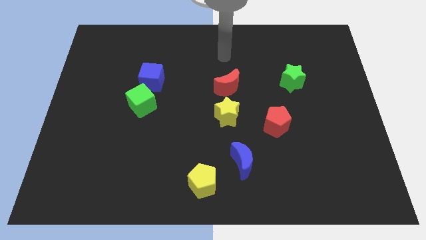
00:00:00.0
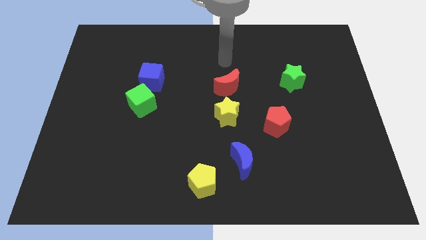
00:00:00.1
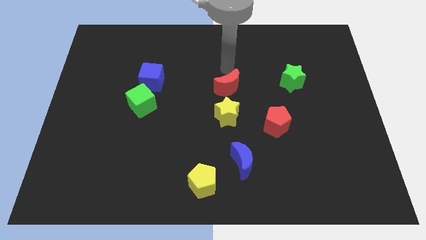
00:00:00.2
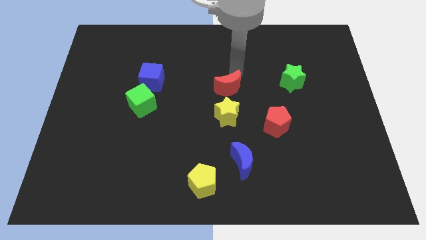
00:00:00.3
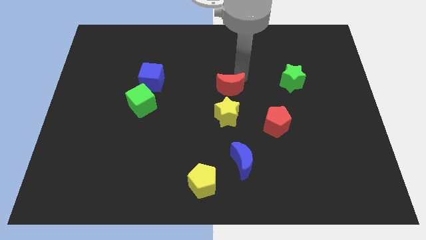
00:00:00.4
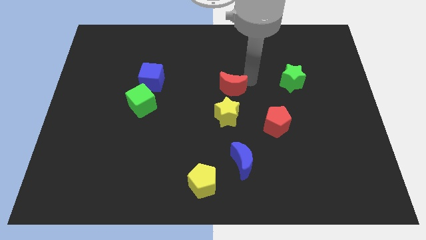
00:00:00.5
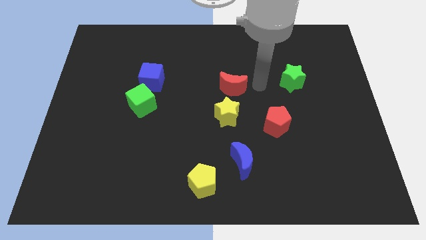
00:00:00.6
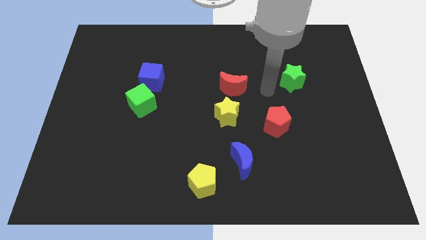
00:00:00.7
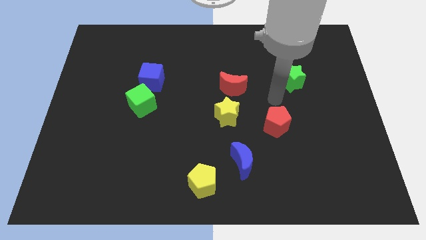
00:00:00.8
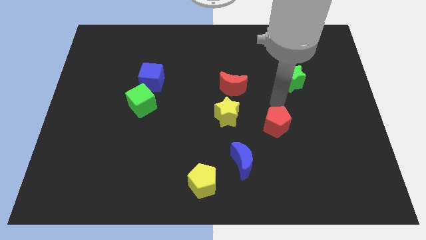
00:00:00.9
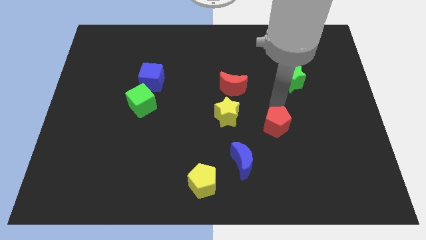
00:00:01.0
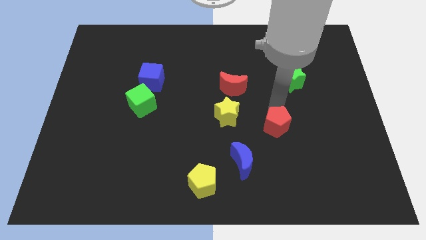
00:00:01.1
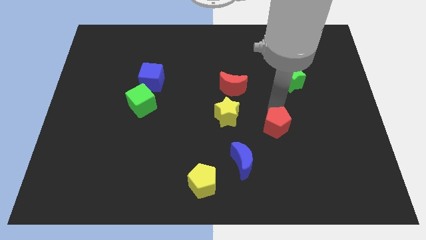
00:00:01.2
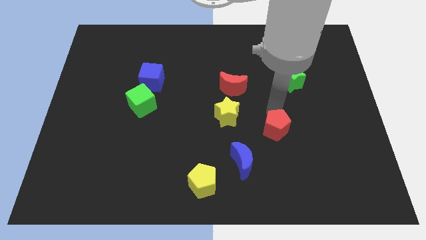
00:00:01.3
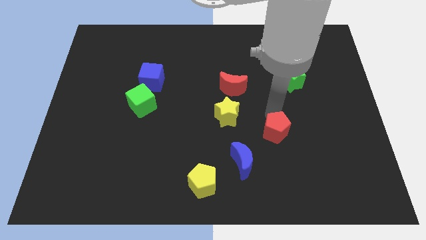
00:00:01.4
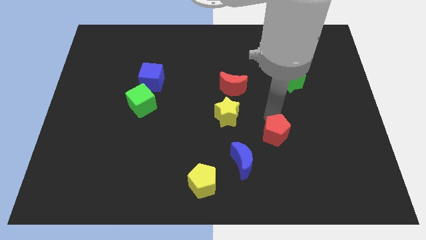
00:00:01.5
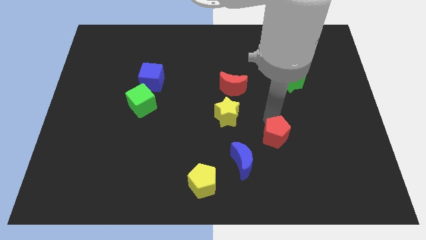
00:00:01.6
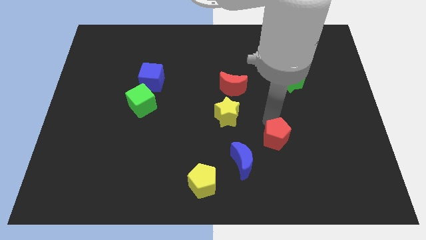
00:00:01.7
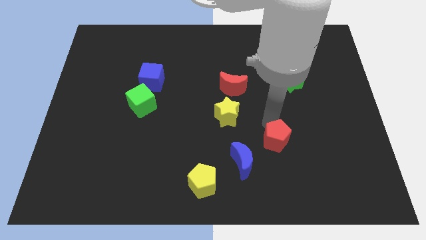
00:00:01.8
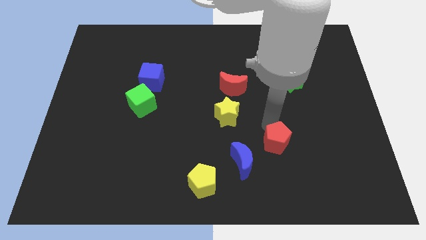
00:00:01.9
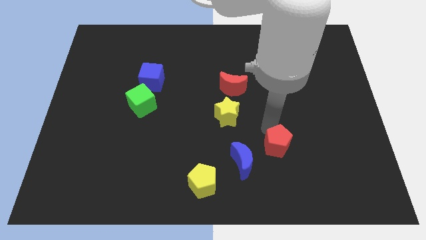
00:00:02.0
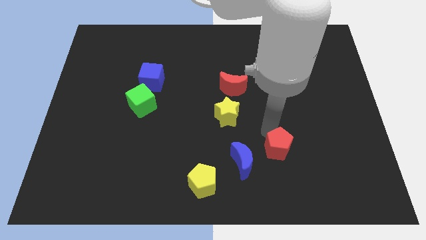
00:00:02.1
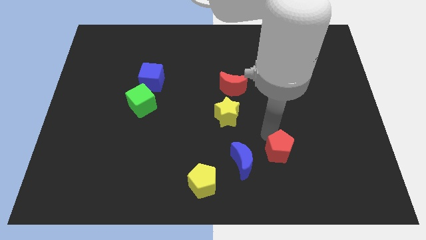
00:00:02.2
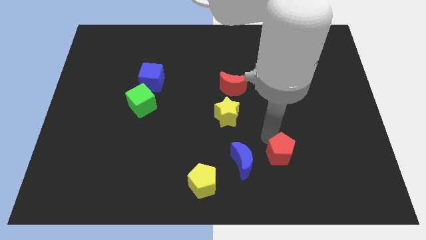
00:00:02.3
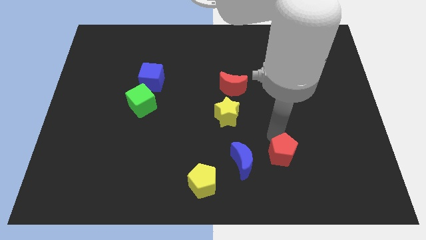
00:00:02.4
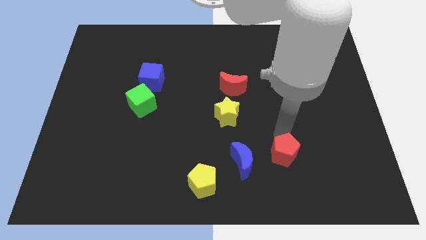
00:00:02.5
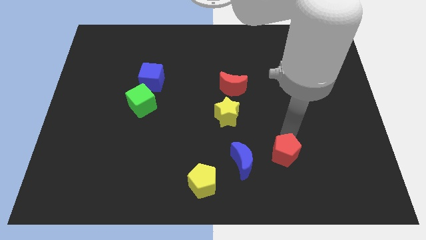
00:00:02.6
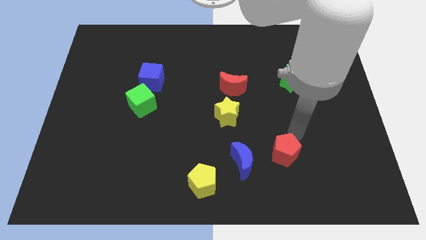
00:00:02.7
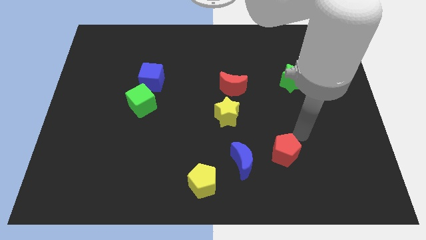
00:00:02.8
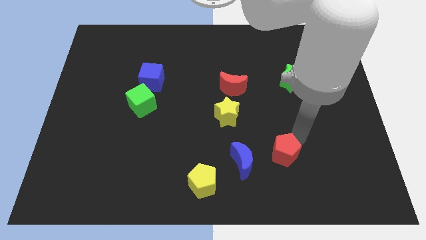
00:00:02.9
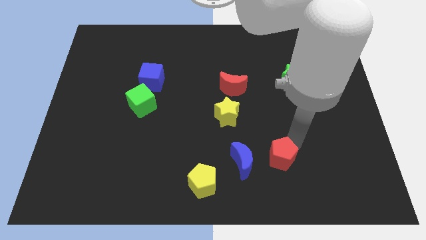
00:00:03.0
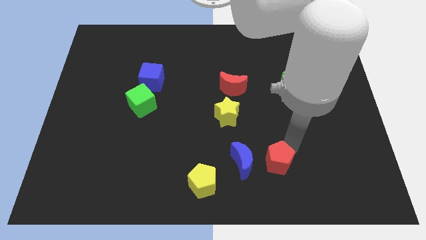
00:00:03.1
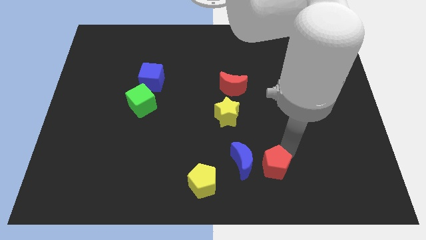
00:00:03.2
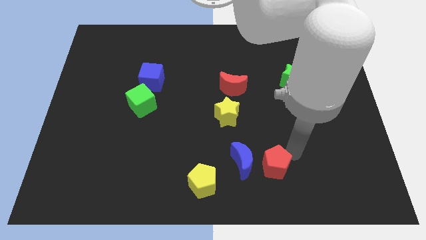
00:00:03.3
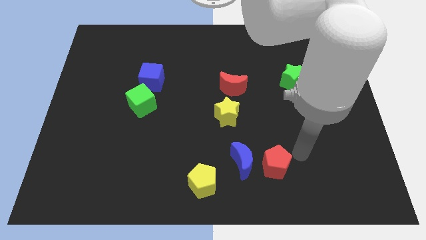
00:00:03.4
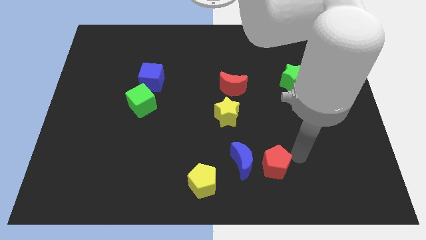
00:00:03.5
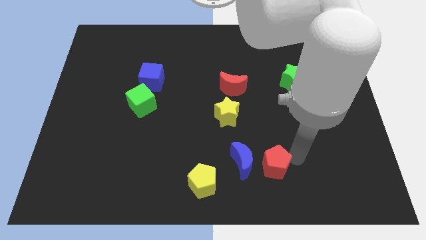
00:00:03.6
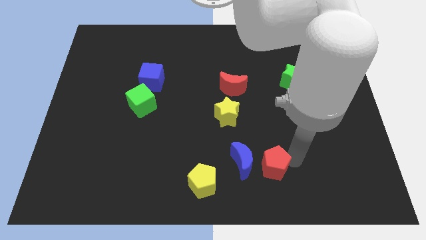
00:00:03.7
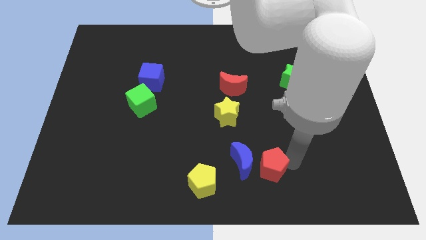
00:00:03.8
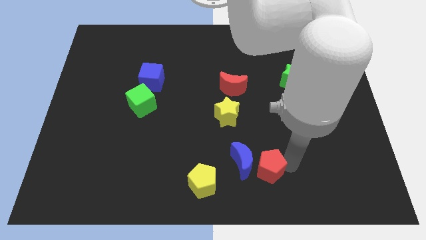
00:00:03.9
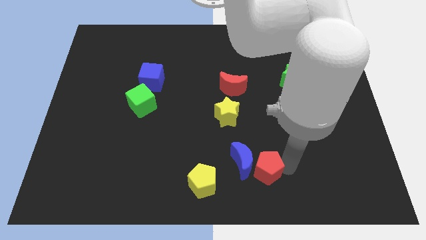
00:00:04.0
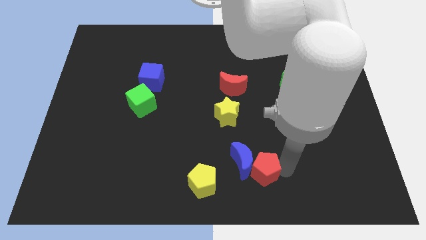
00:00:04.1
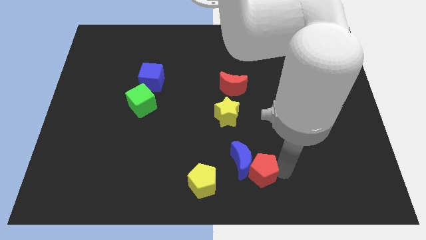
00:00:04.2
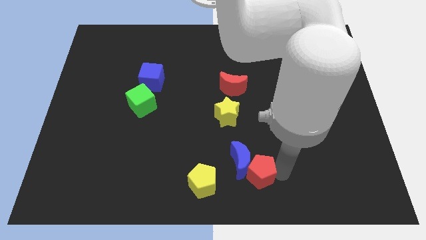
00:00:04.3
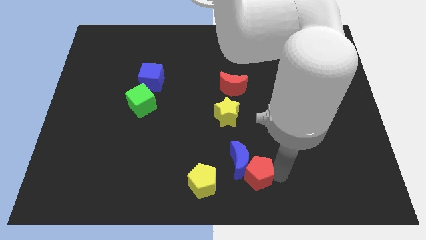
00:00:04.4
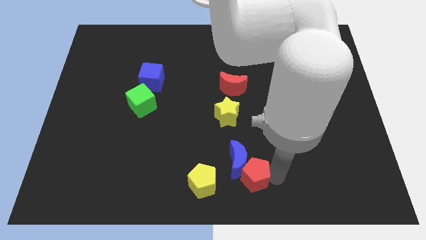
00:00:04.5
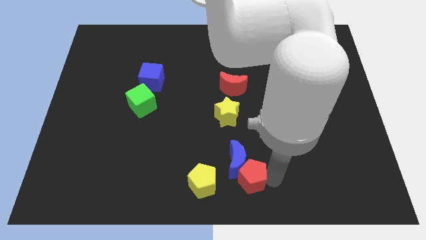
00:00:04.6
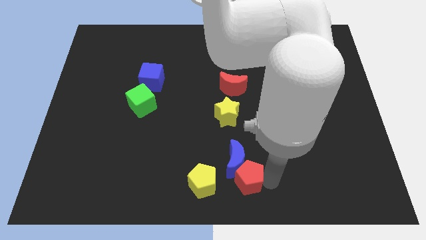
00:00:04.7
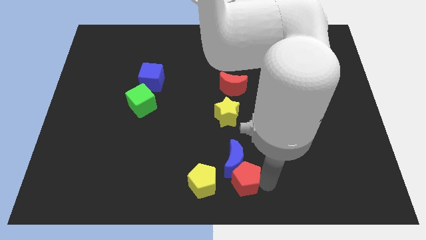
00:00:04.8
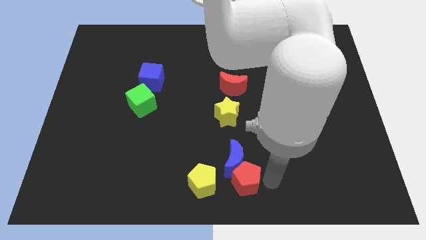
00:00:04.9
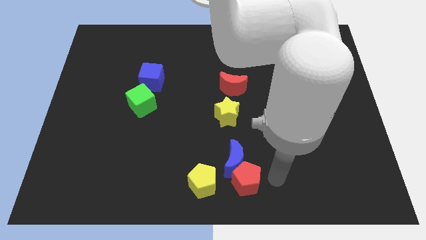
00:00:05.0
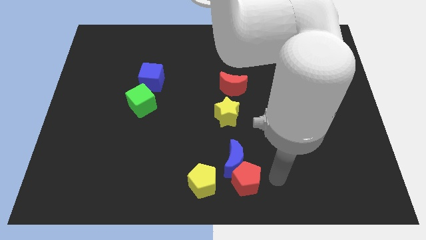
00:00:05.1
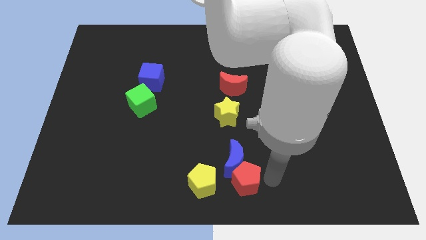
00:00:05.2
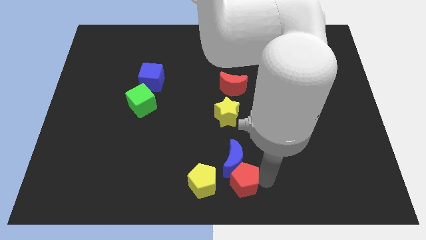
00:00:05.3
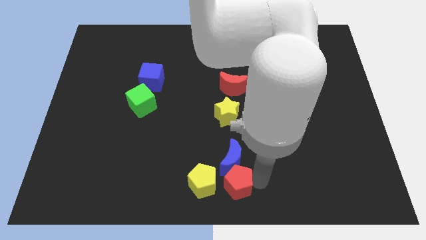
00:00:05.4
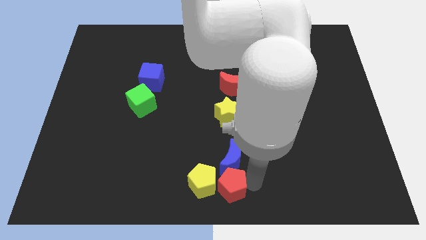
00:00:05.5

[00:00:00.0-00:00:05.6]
put the red pentagon towards the yellow pentagon

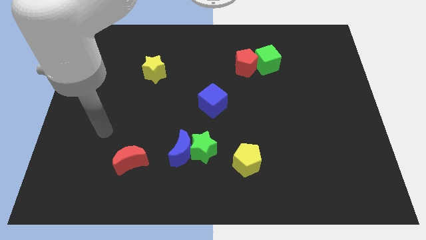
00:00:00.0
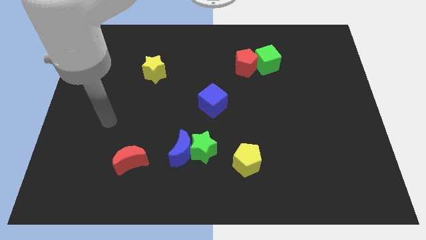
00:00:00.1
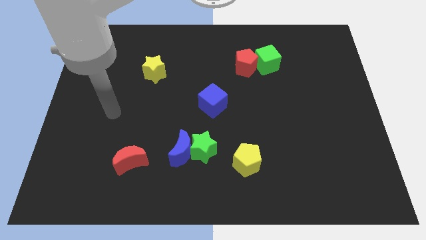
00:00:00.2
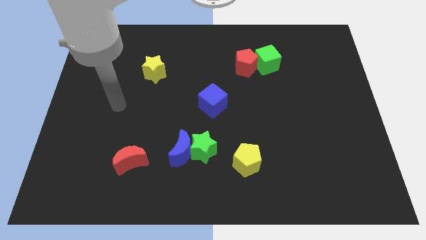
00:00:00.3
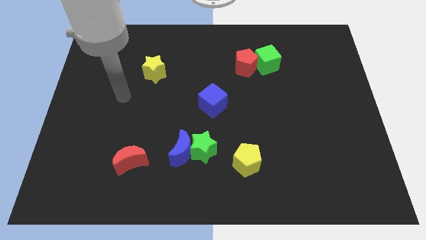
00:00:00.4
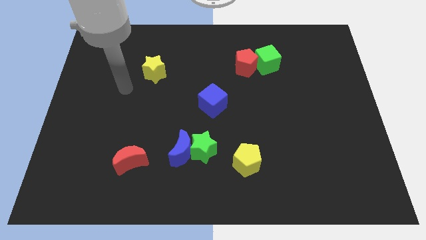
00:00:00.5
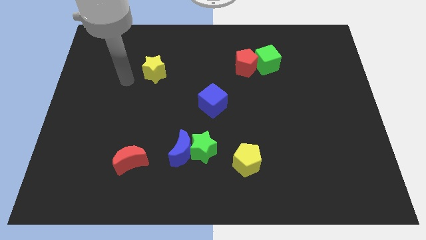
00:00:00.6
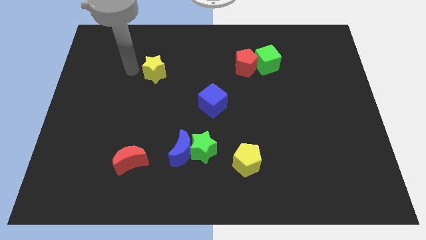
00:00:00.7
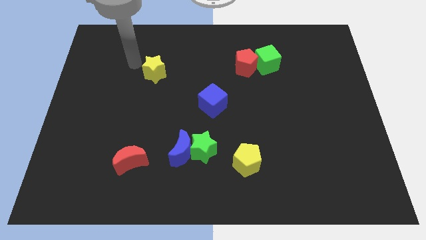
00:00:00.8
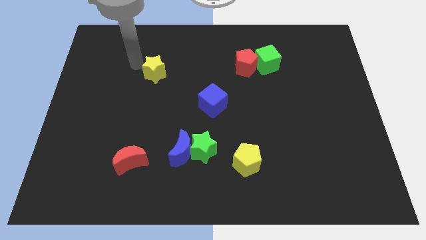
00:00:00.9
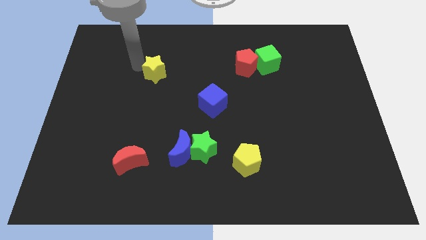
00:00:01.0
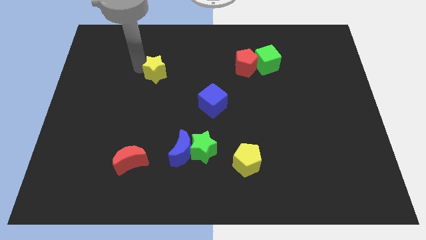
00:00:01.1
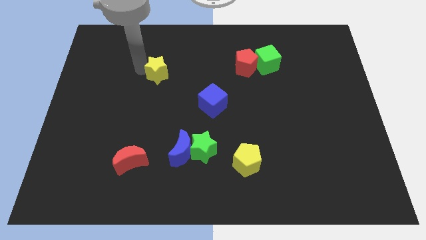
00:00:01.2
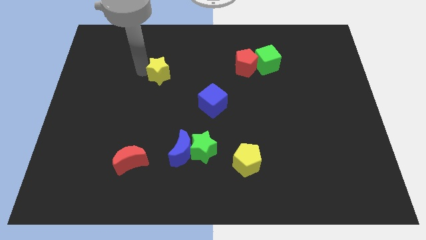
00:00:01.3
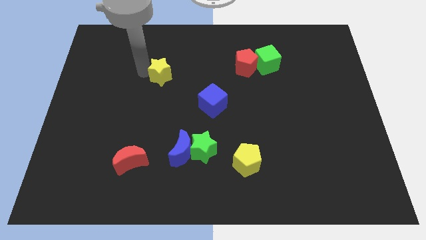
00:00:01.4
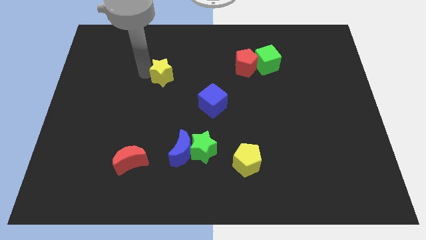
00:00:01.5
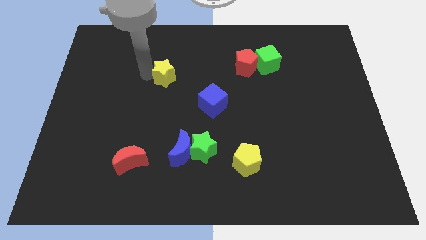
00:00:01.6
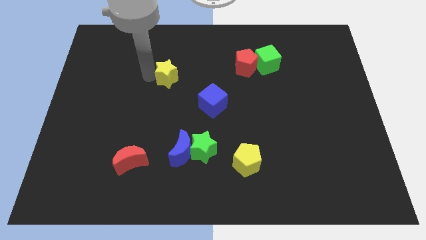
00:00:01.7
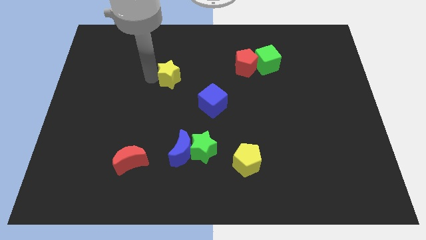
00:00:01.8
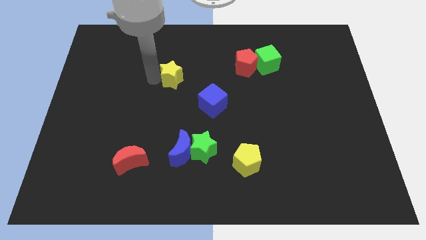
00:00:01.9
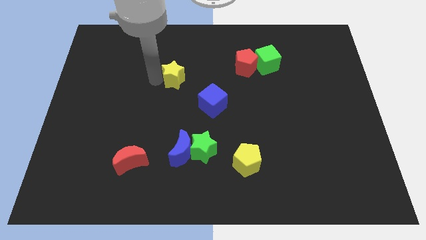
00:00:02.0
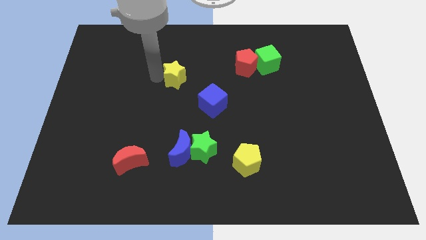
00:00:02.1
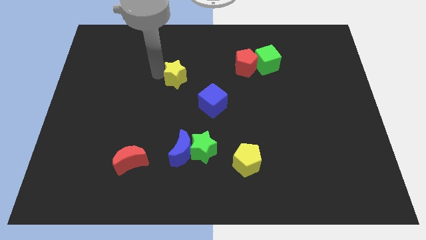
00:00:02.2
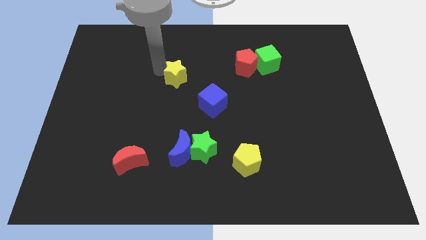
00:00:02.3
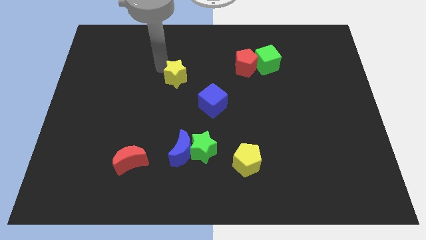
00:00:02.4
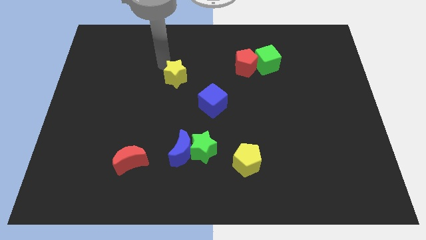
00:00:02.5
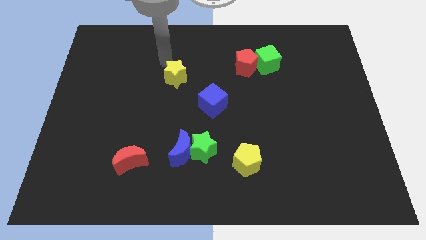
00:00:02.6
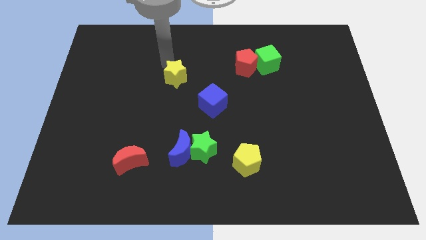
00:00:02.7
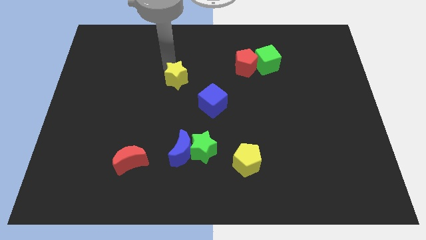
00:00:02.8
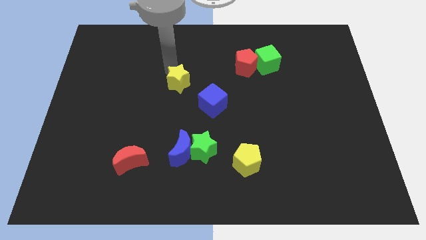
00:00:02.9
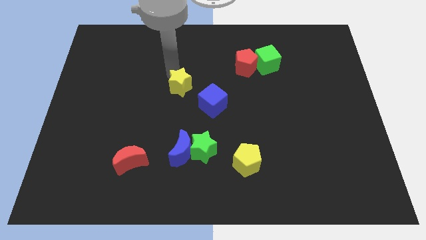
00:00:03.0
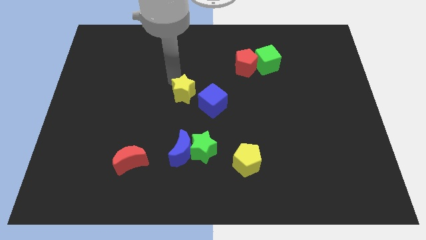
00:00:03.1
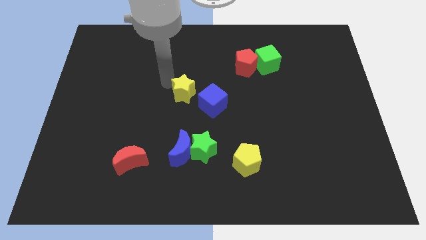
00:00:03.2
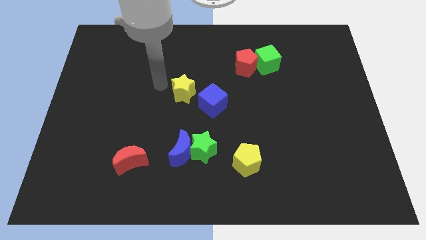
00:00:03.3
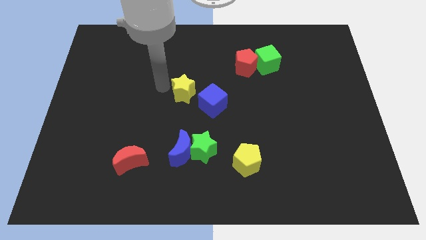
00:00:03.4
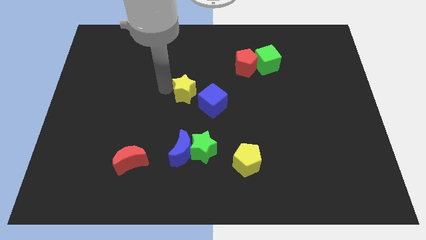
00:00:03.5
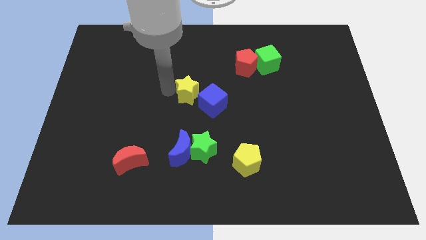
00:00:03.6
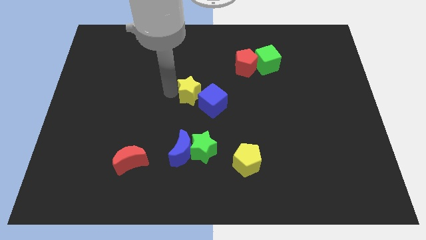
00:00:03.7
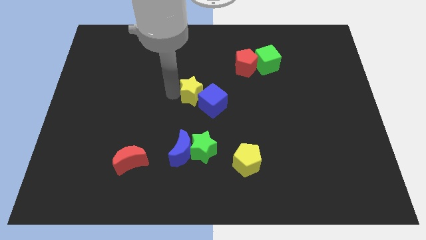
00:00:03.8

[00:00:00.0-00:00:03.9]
push the yellow star towards the blue cube
